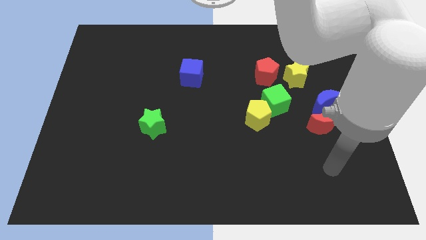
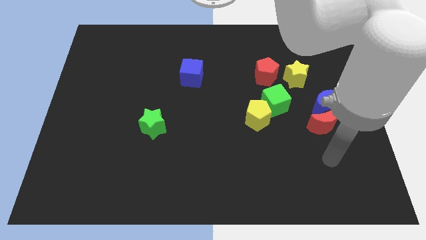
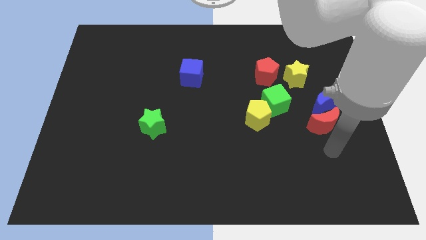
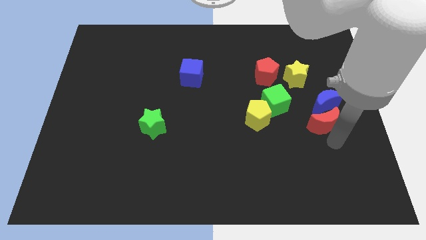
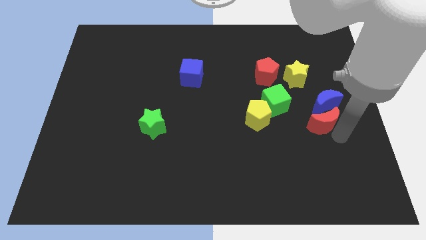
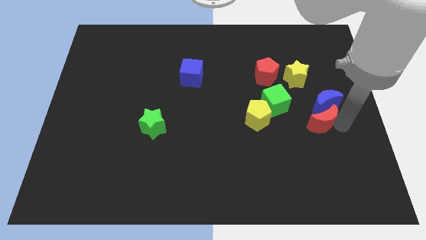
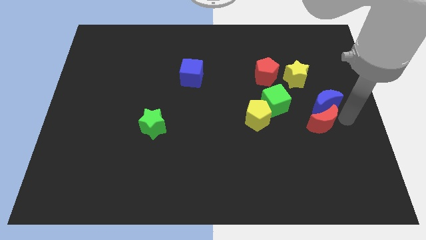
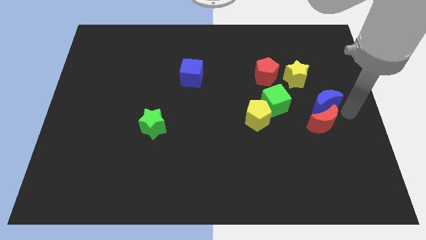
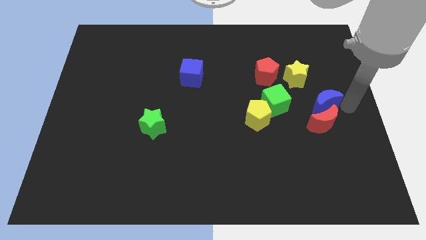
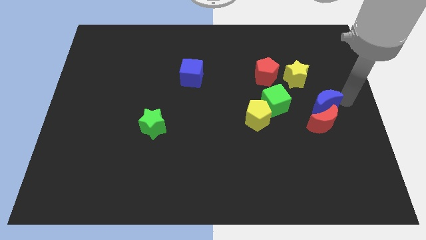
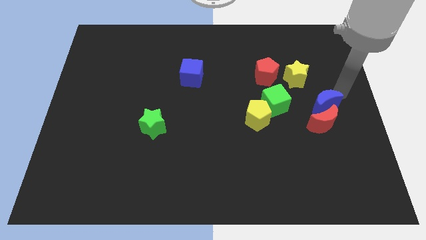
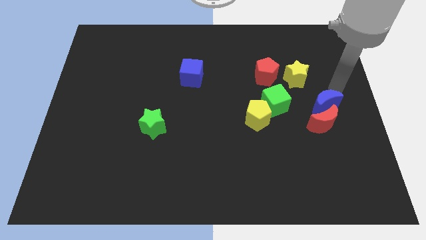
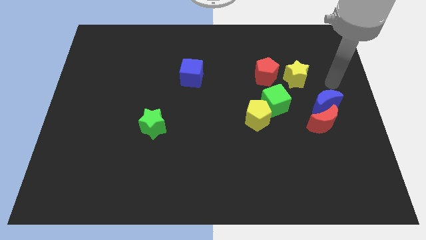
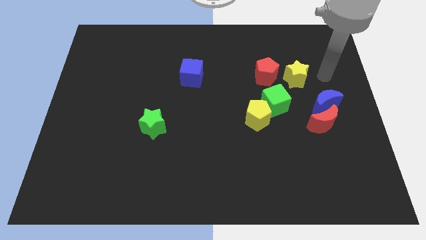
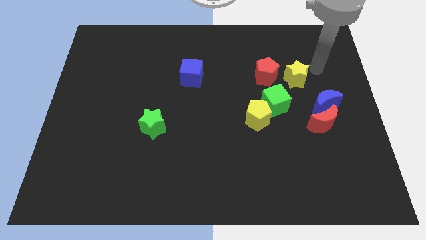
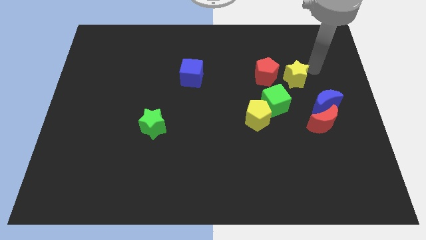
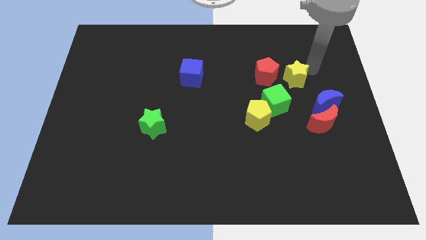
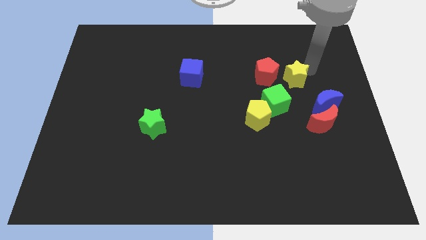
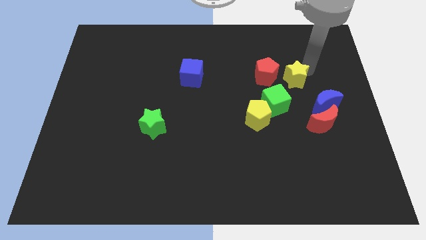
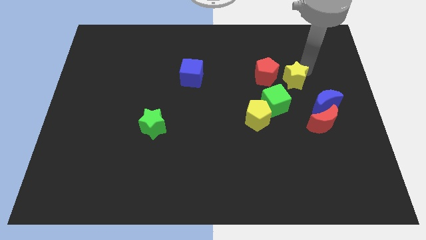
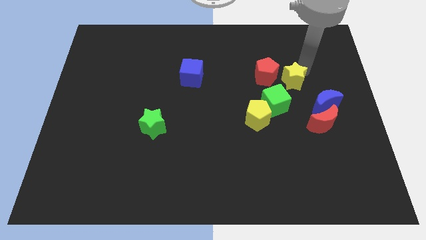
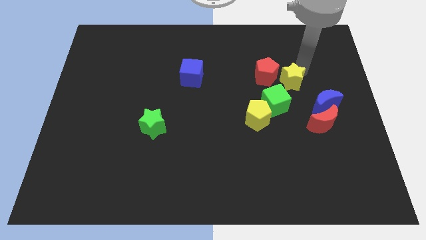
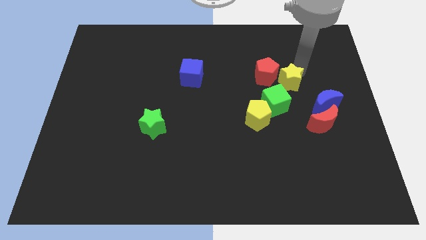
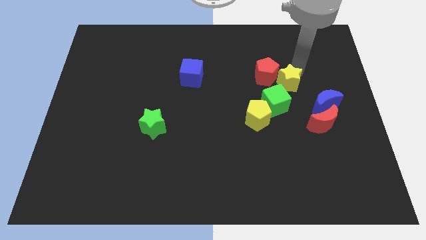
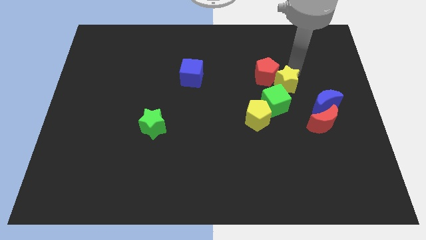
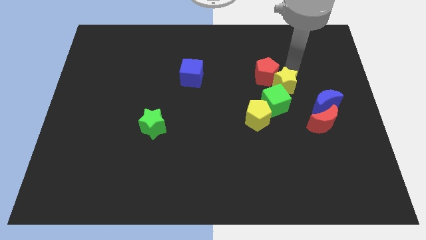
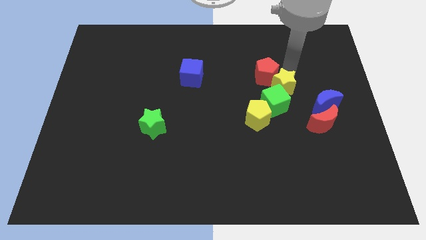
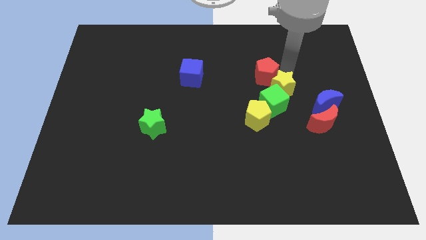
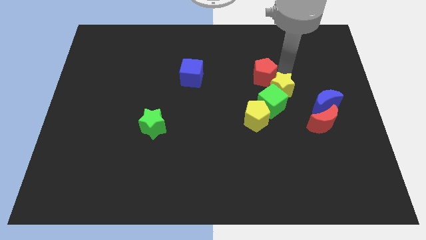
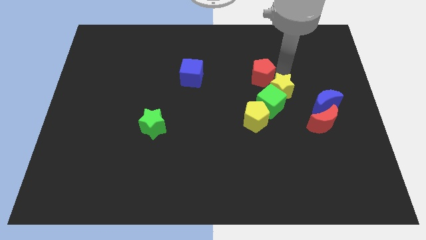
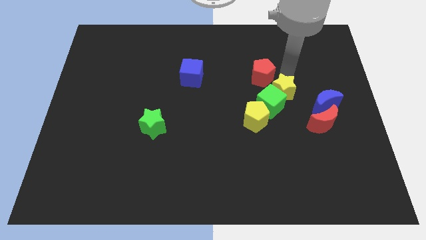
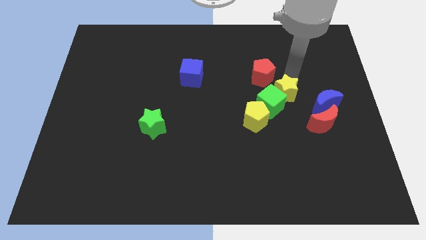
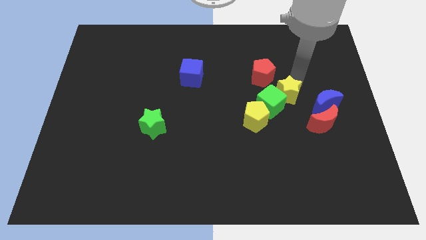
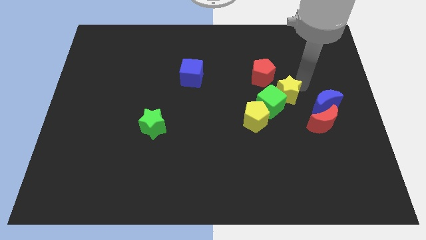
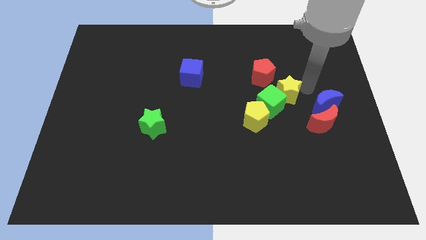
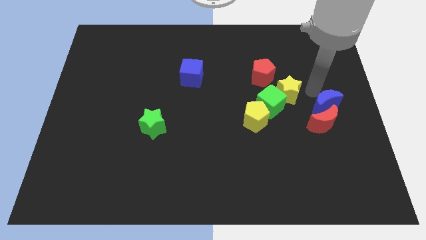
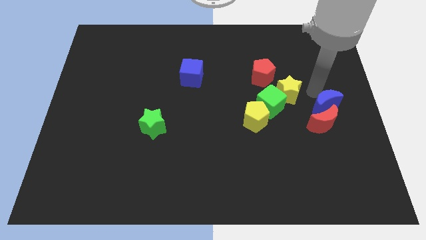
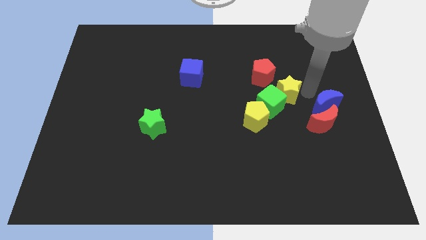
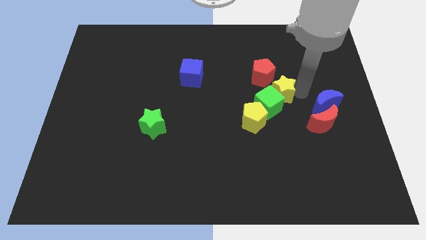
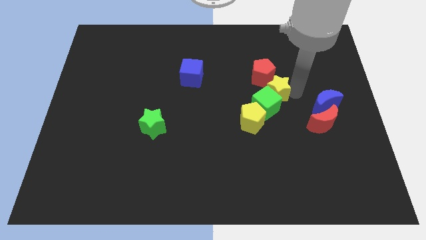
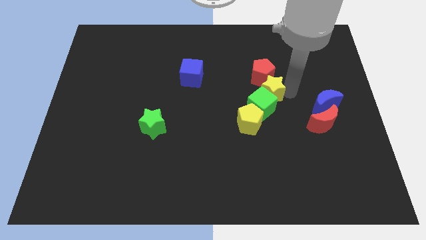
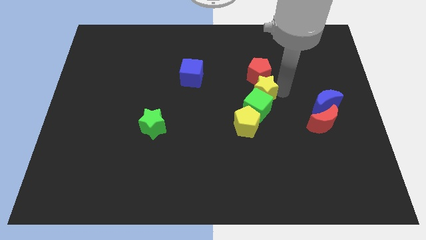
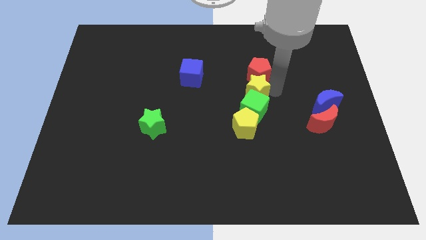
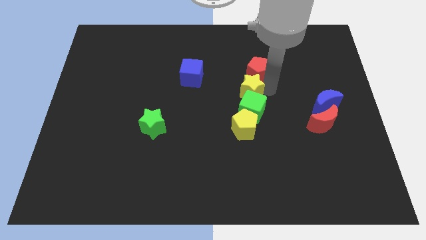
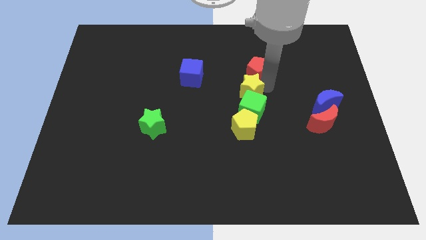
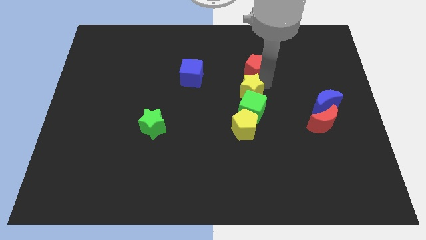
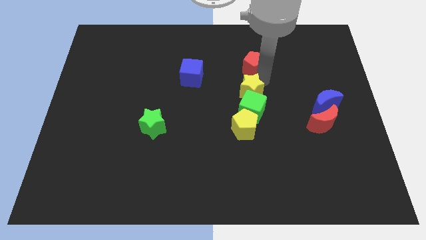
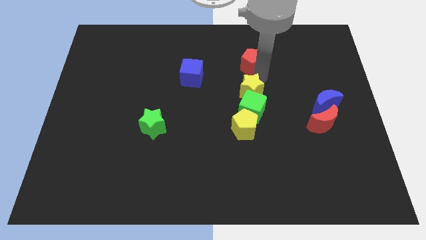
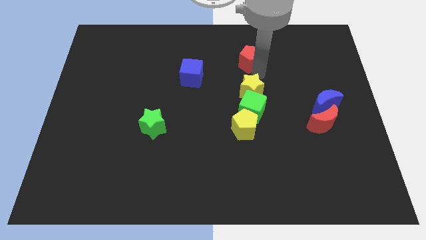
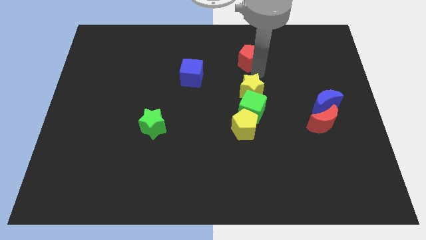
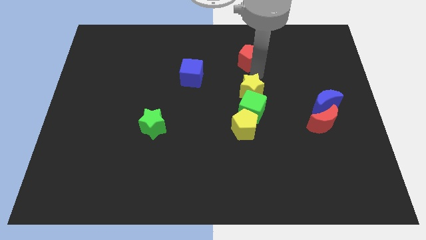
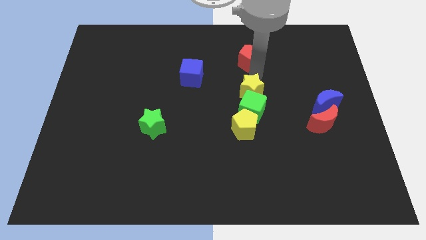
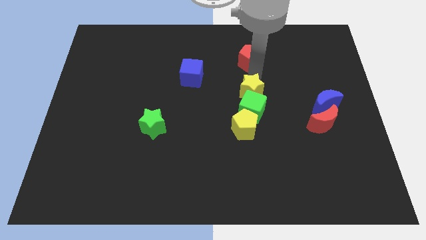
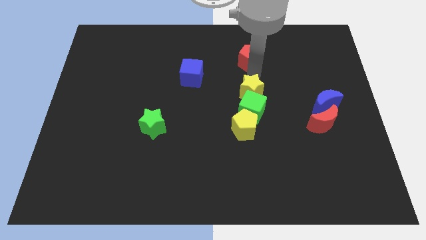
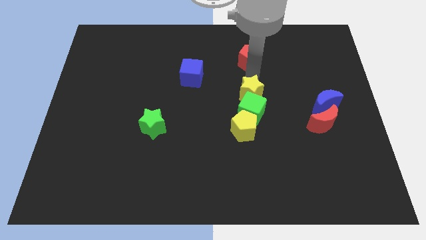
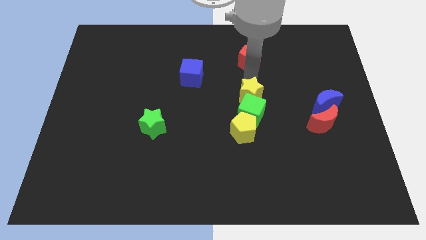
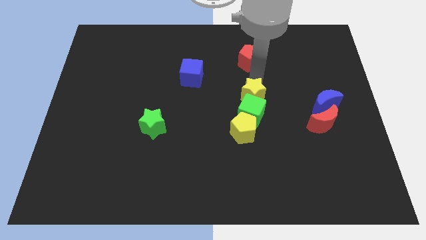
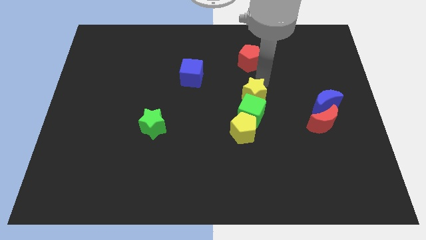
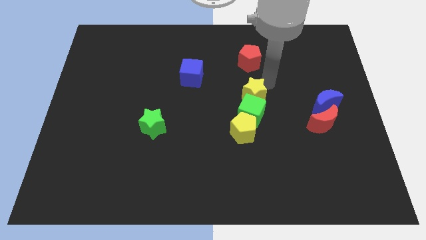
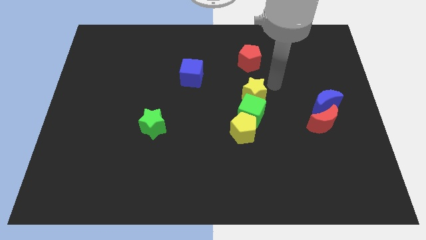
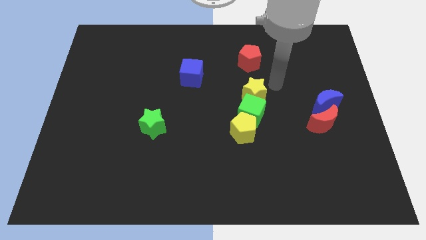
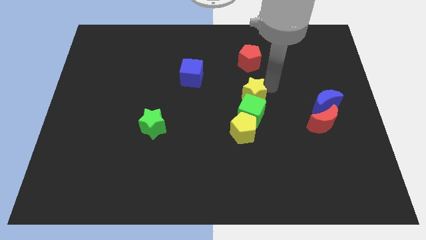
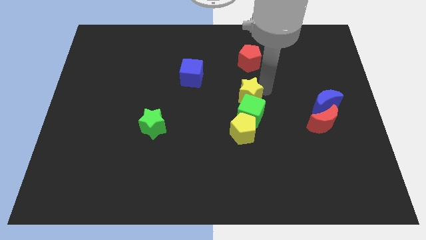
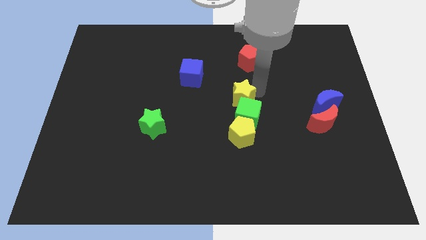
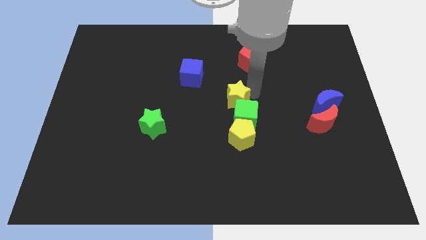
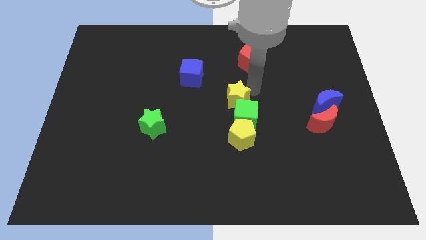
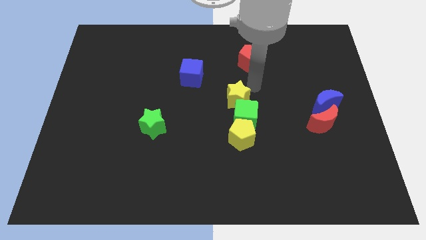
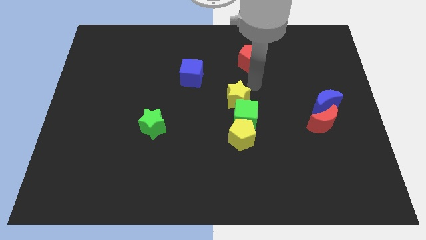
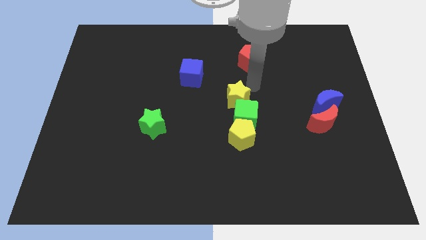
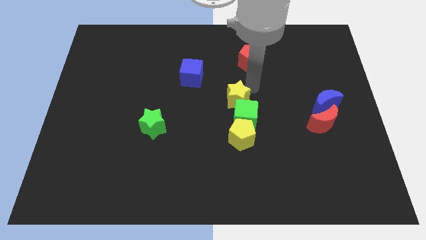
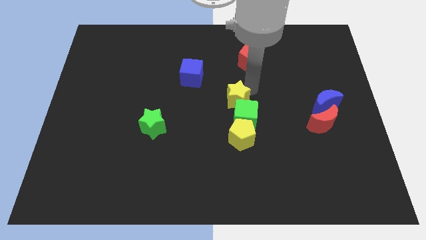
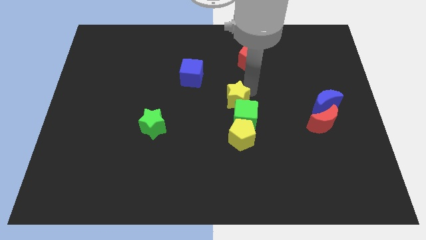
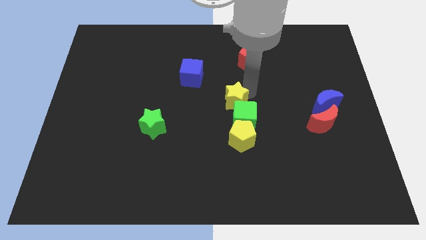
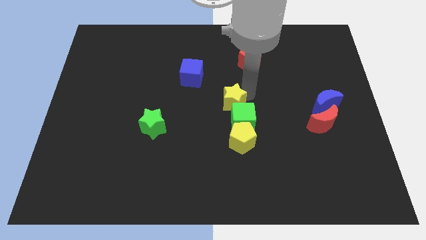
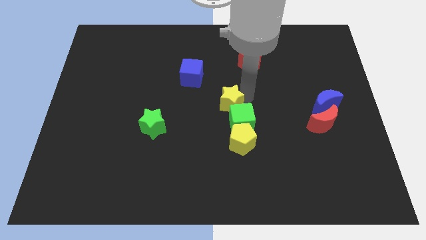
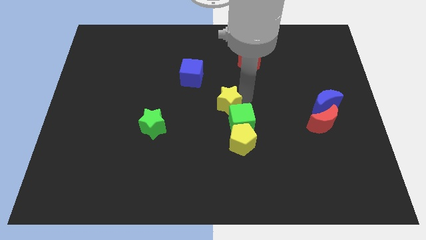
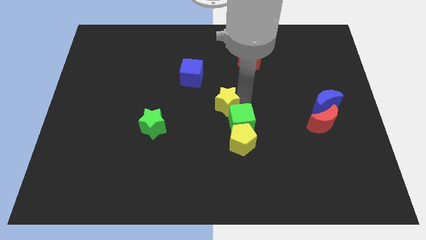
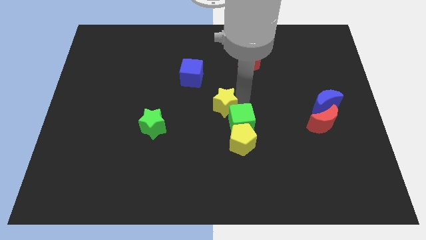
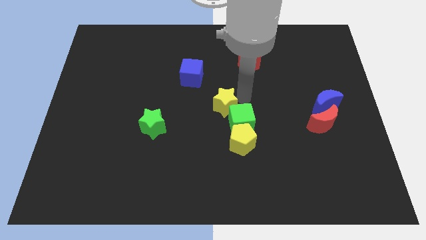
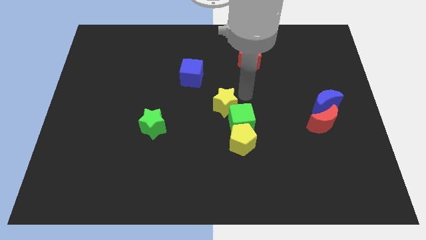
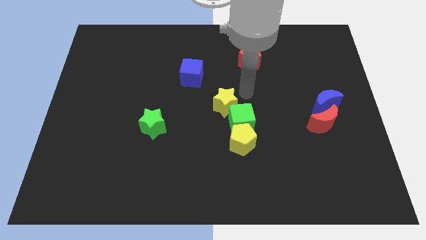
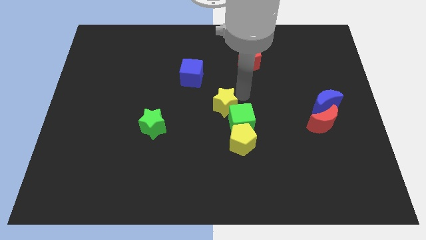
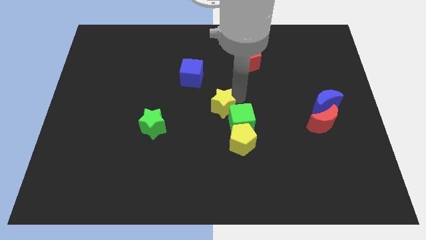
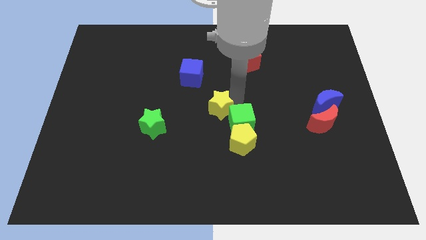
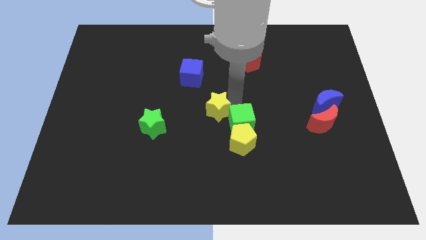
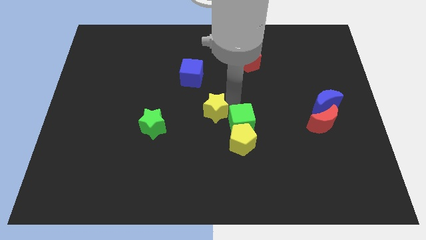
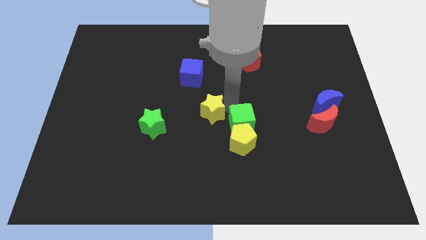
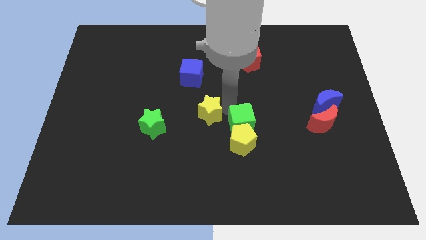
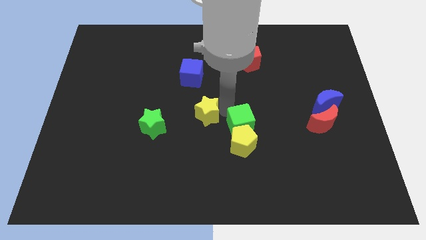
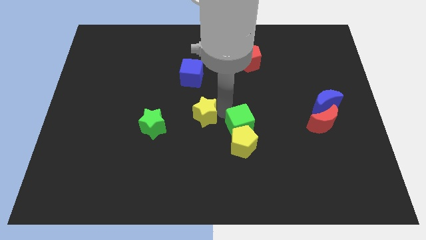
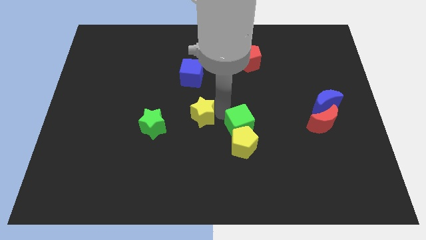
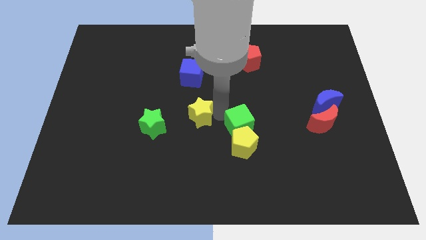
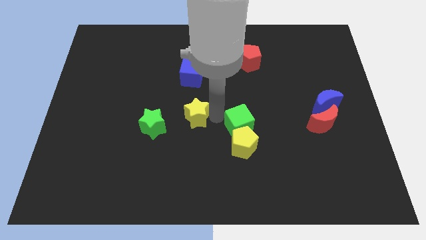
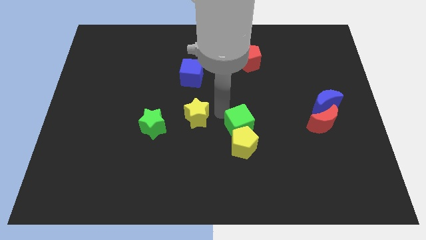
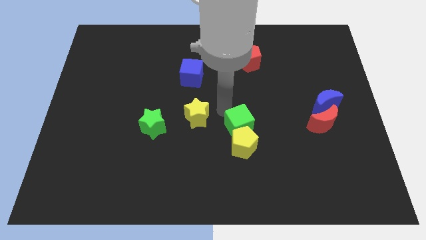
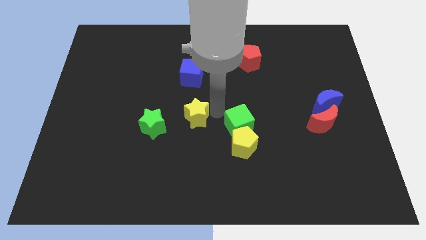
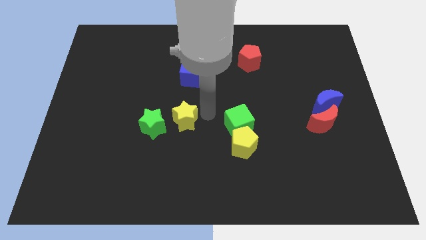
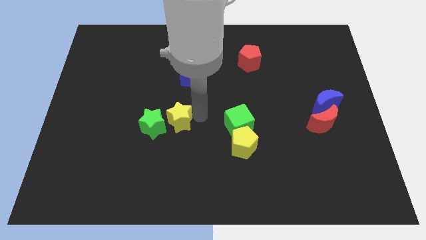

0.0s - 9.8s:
put the yellow star close to the green star
